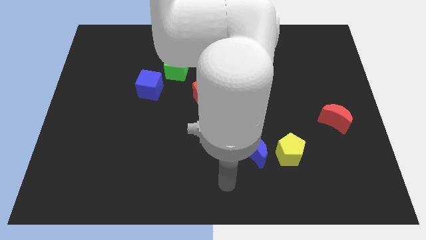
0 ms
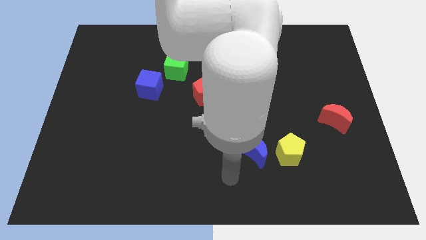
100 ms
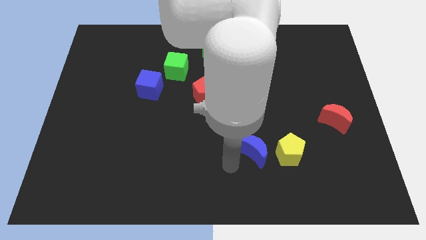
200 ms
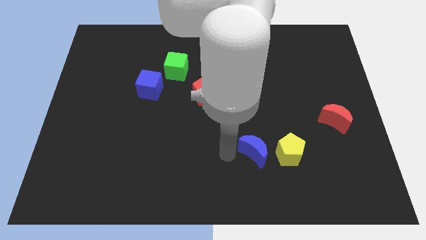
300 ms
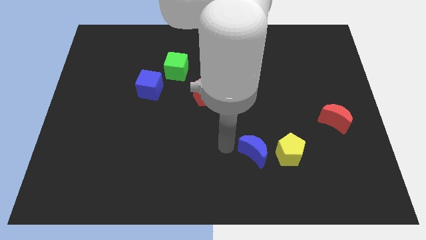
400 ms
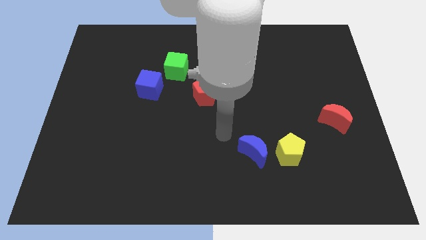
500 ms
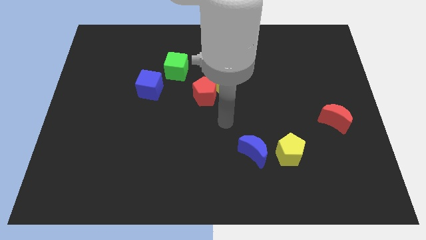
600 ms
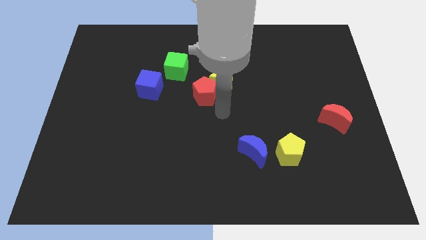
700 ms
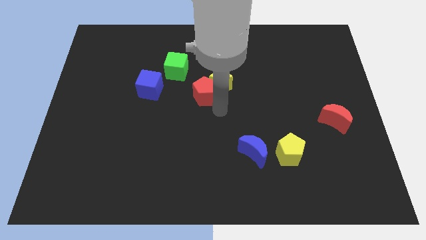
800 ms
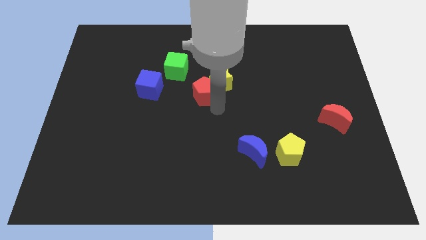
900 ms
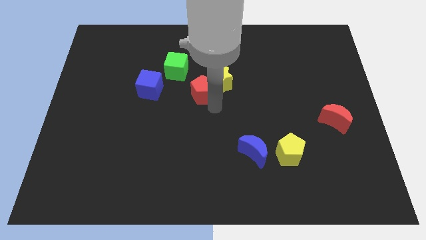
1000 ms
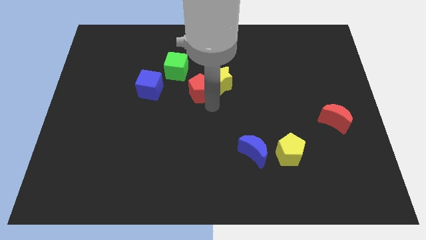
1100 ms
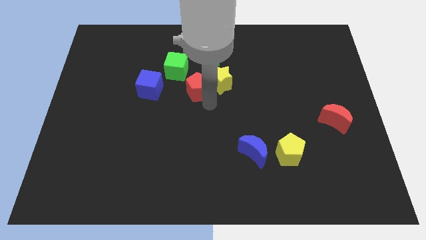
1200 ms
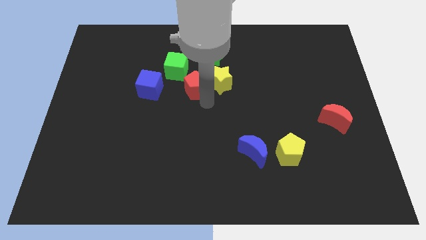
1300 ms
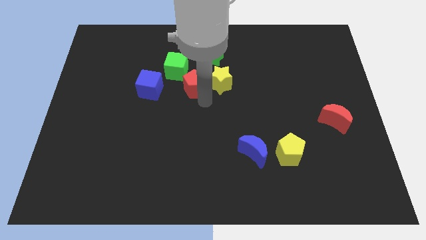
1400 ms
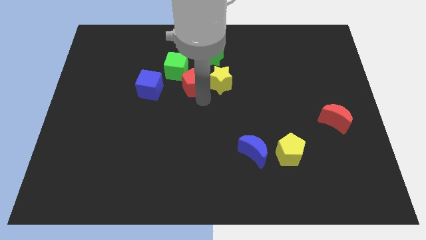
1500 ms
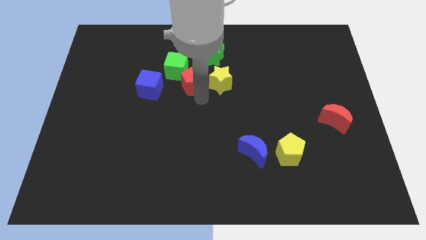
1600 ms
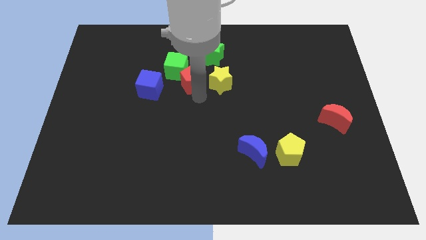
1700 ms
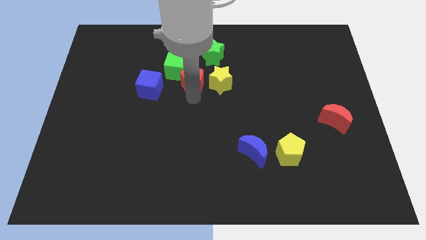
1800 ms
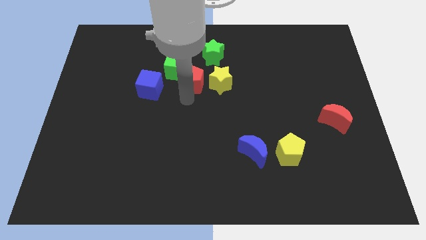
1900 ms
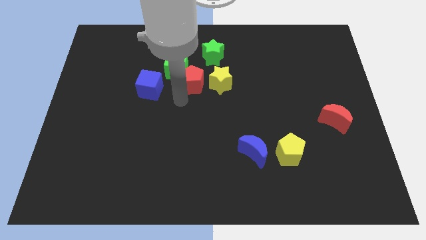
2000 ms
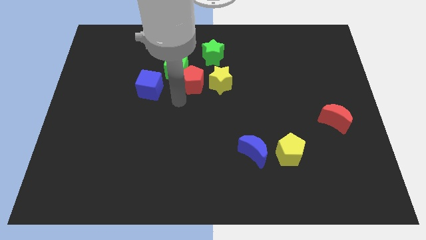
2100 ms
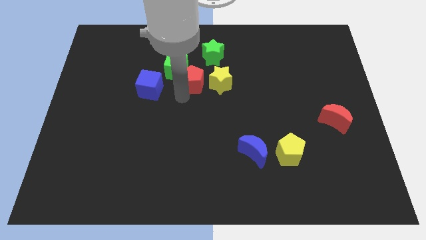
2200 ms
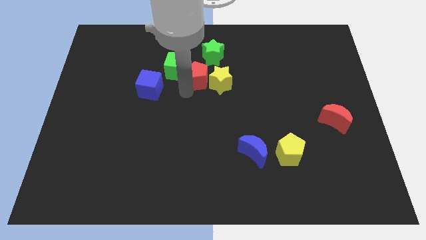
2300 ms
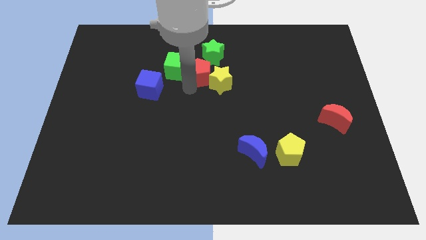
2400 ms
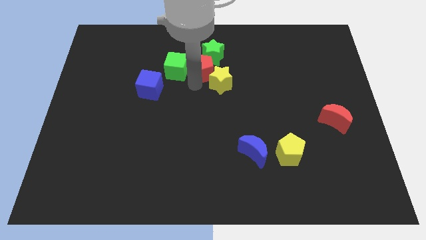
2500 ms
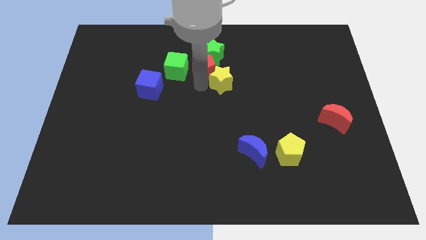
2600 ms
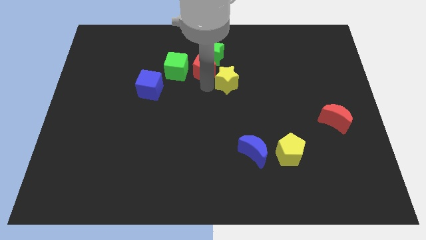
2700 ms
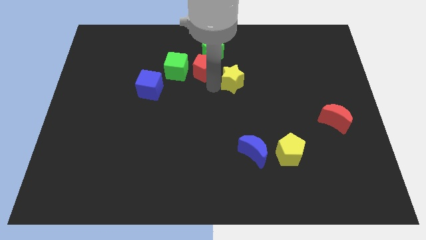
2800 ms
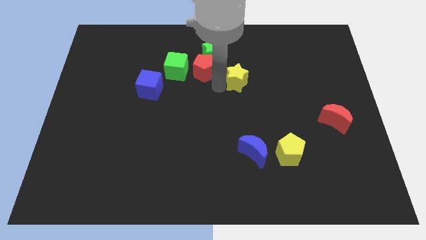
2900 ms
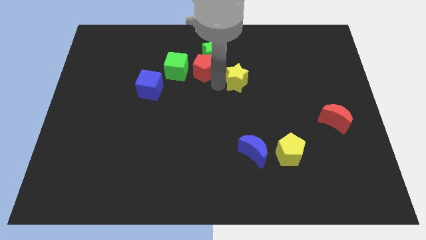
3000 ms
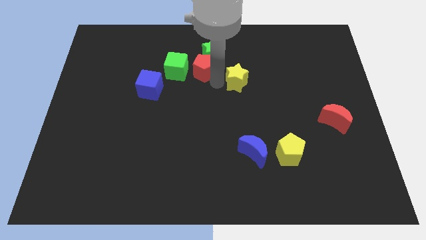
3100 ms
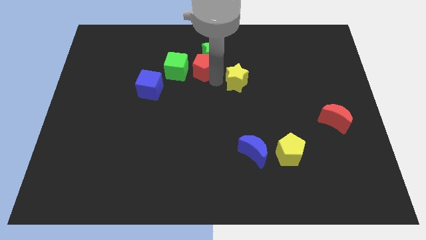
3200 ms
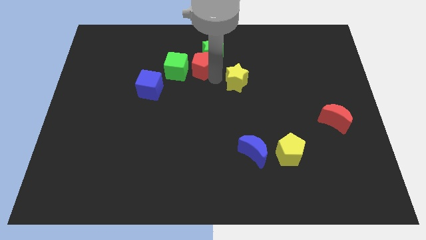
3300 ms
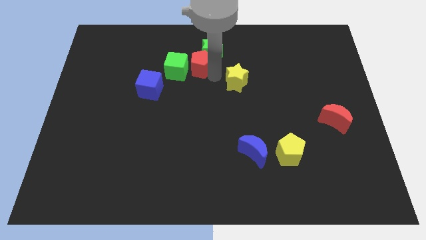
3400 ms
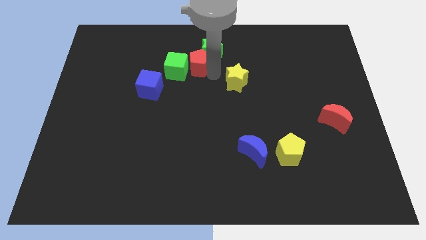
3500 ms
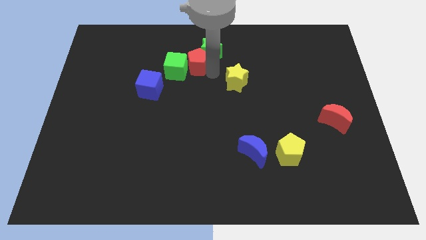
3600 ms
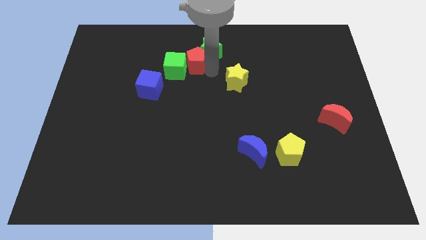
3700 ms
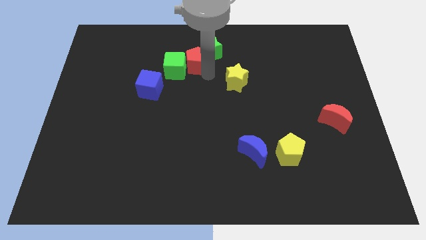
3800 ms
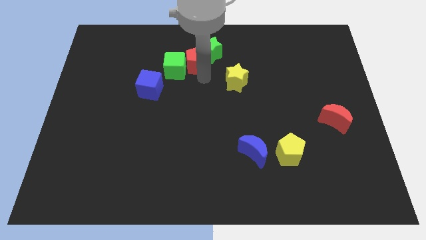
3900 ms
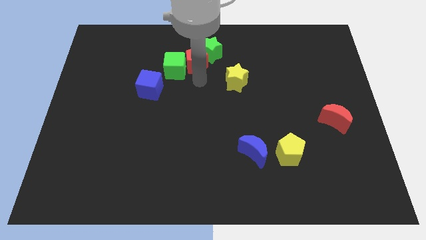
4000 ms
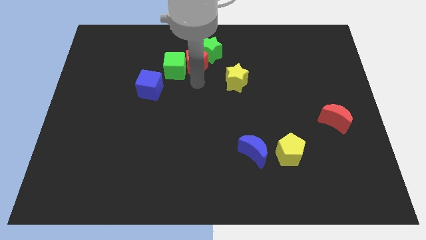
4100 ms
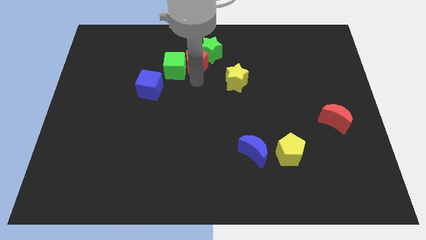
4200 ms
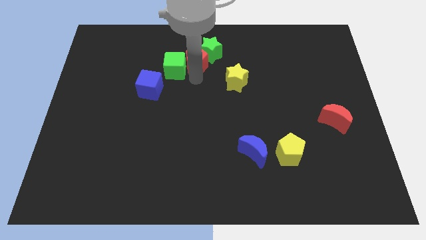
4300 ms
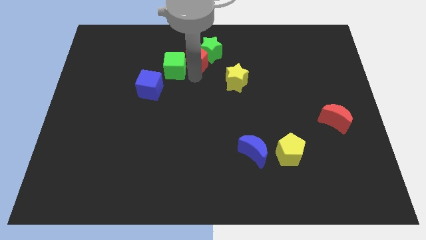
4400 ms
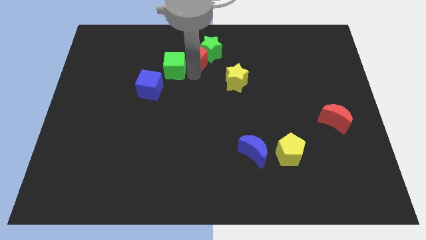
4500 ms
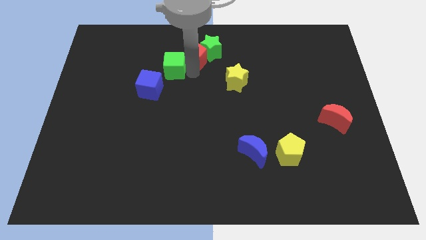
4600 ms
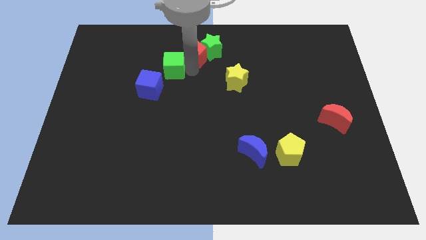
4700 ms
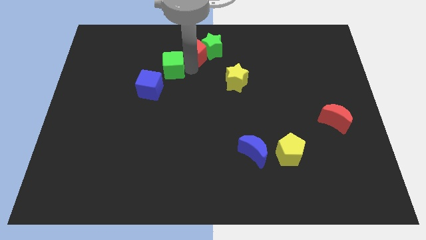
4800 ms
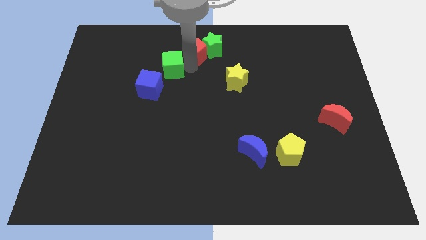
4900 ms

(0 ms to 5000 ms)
slide the red pentagon to the top

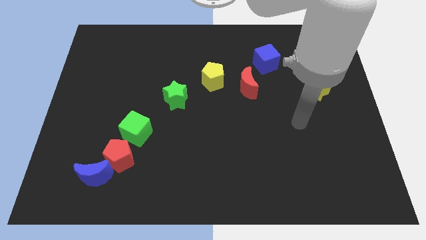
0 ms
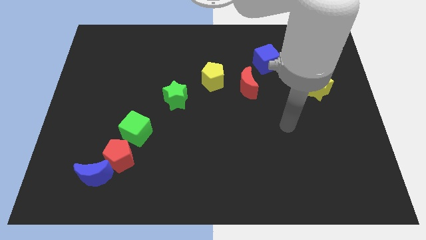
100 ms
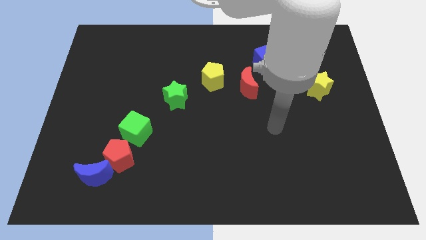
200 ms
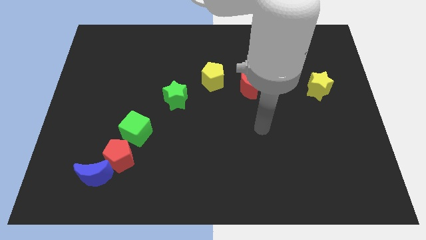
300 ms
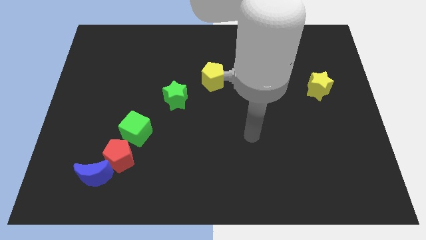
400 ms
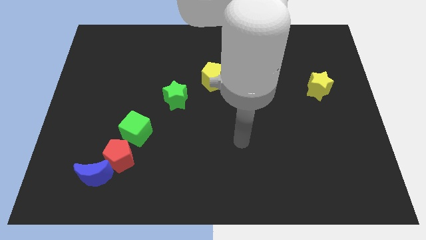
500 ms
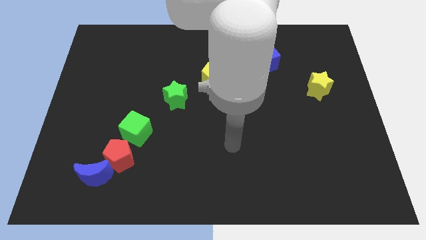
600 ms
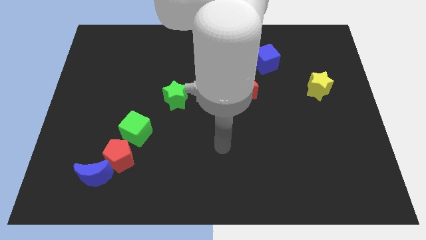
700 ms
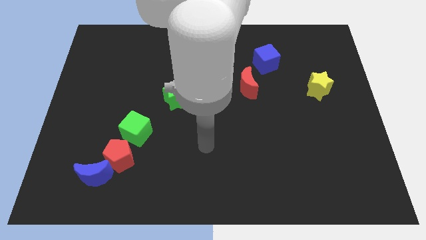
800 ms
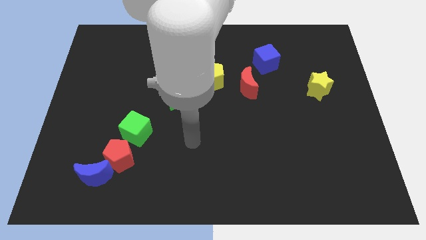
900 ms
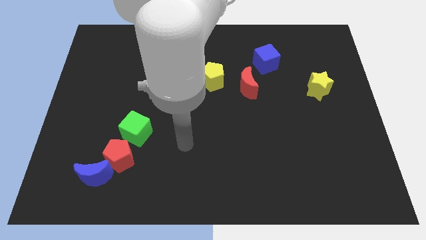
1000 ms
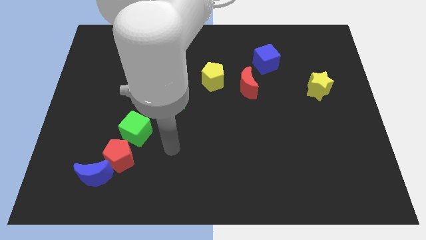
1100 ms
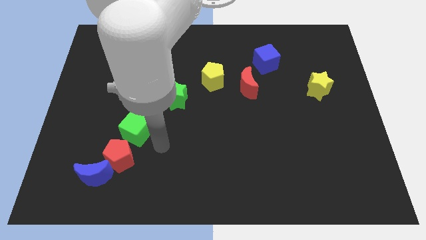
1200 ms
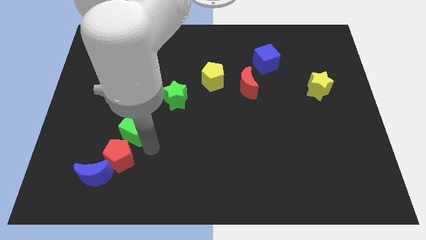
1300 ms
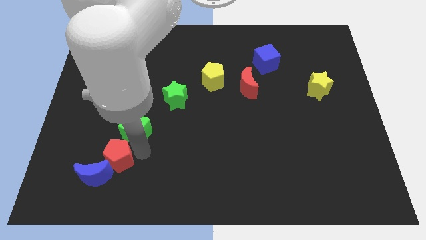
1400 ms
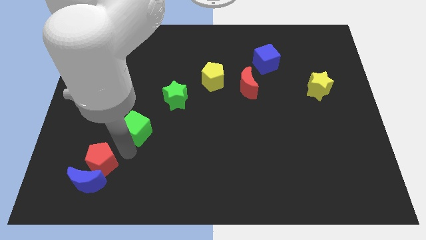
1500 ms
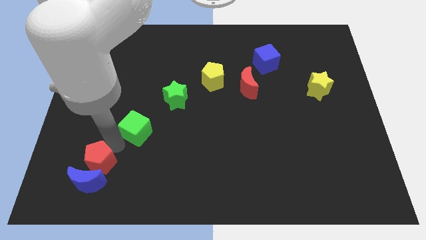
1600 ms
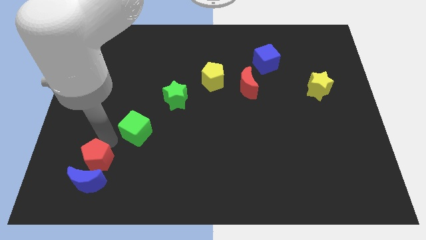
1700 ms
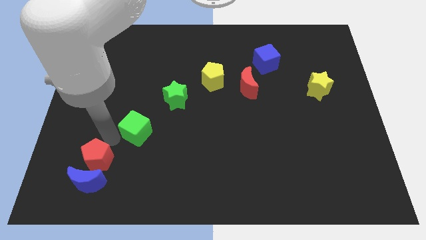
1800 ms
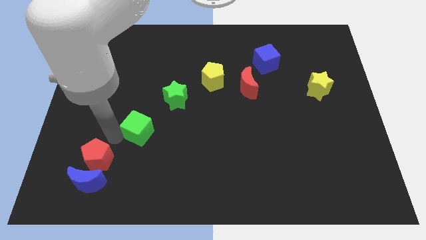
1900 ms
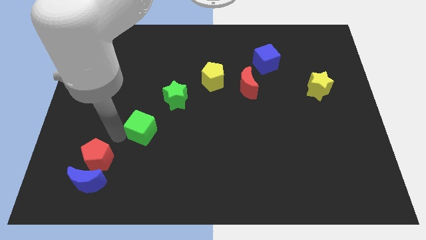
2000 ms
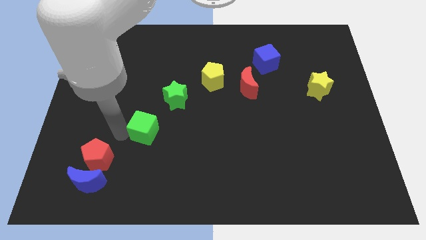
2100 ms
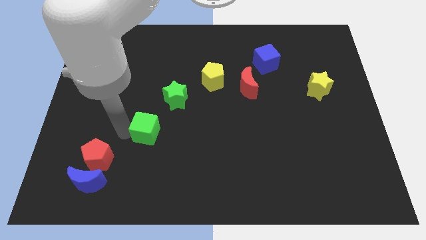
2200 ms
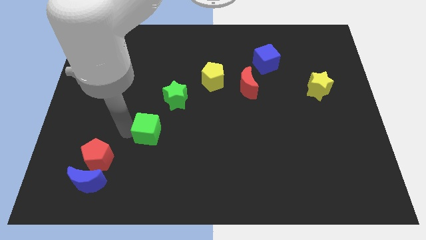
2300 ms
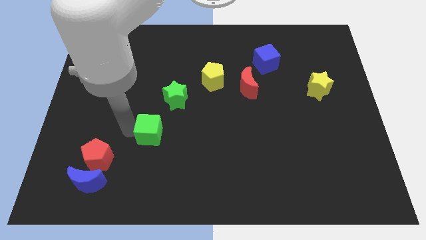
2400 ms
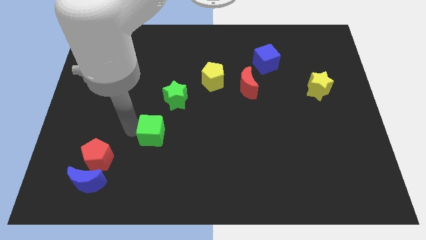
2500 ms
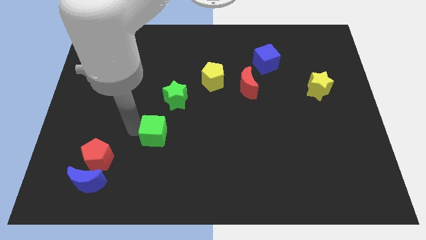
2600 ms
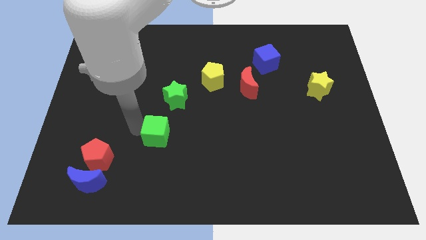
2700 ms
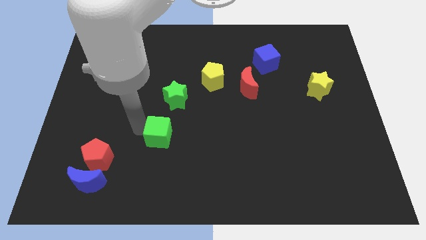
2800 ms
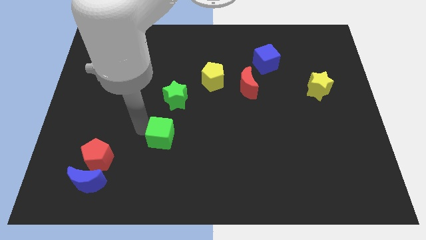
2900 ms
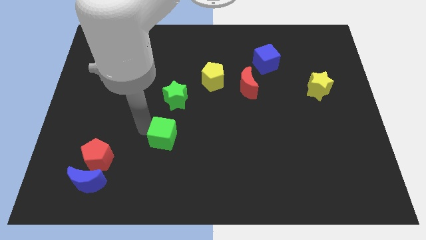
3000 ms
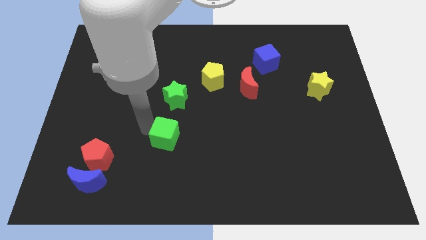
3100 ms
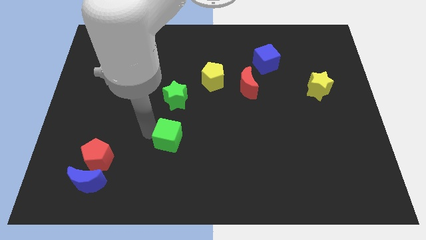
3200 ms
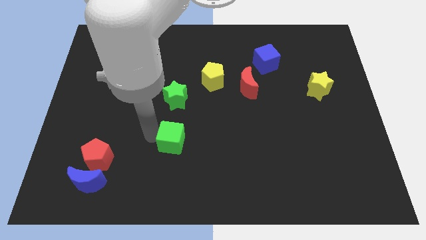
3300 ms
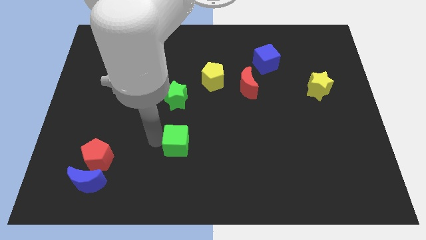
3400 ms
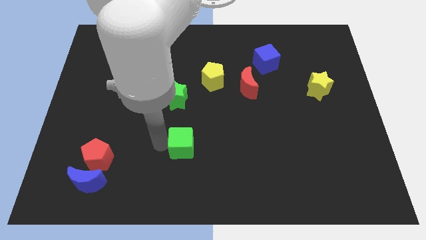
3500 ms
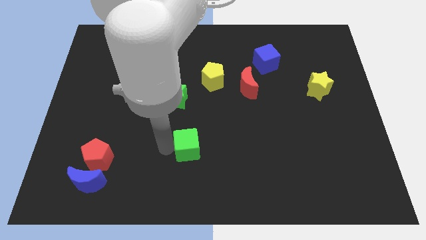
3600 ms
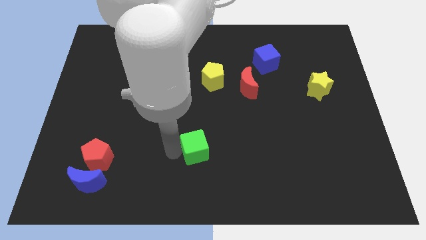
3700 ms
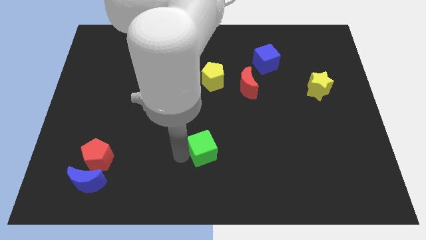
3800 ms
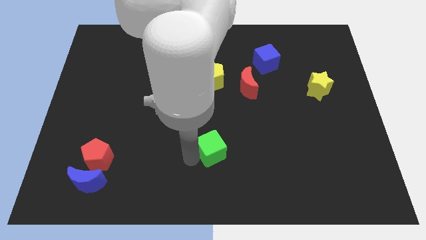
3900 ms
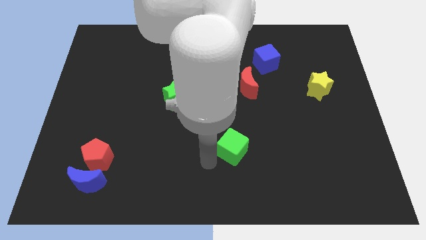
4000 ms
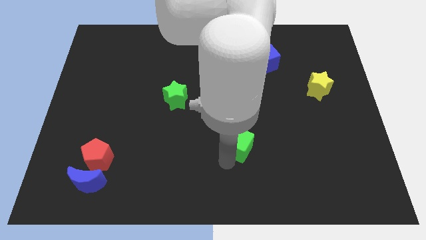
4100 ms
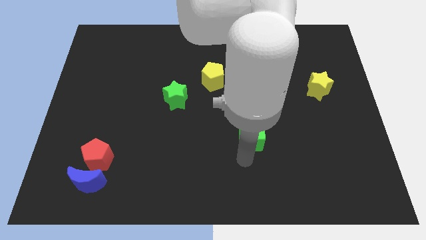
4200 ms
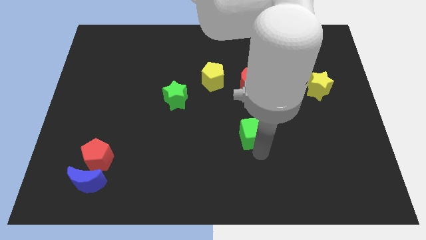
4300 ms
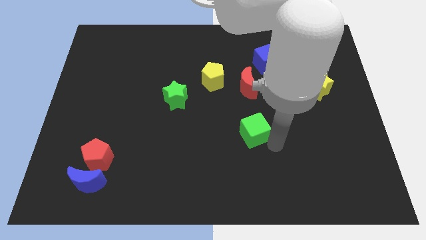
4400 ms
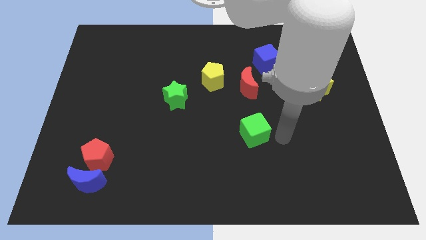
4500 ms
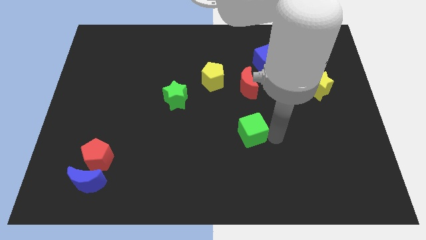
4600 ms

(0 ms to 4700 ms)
push the green cube to the middle of the board
